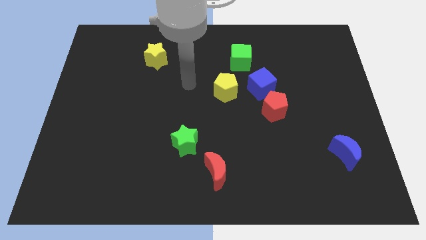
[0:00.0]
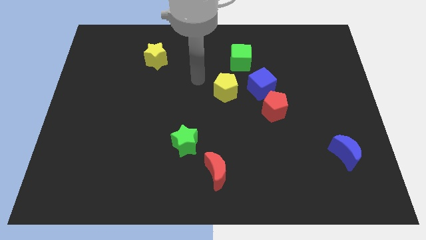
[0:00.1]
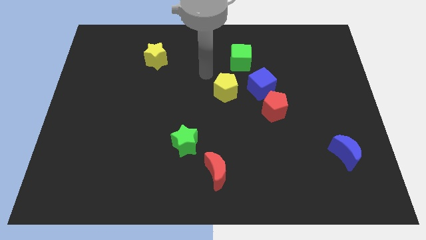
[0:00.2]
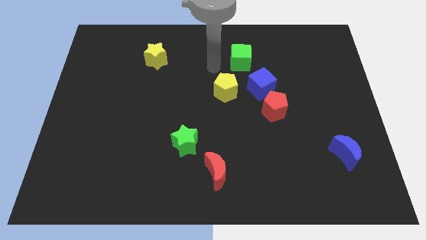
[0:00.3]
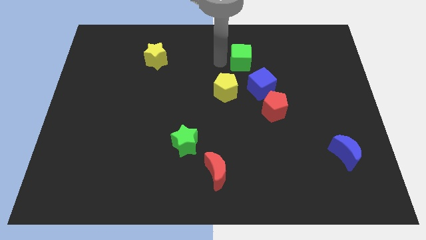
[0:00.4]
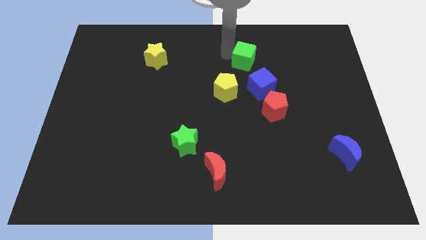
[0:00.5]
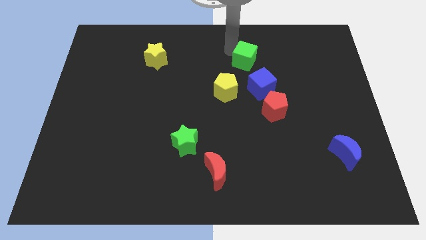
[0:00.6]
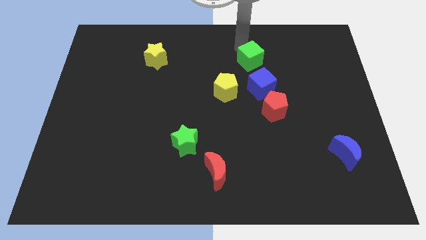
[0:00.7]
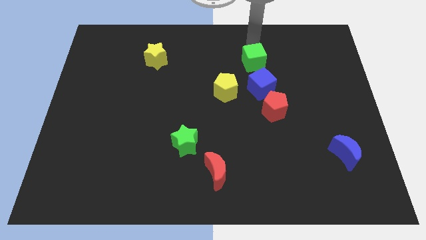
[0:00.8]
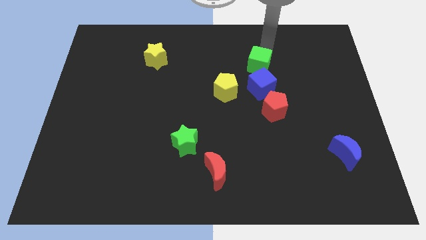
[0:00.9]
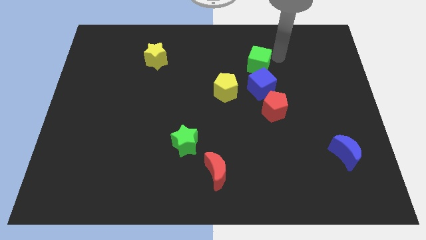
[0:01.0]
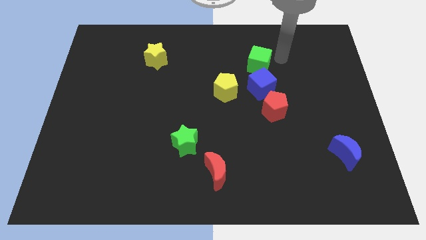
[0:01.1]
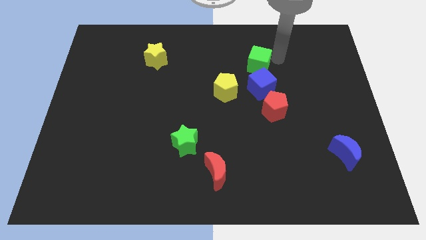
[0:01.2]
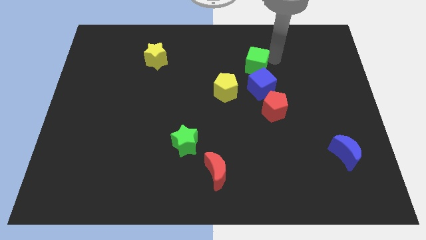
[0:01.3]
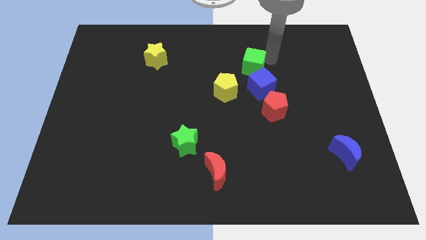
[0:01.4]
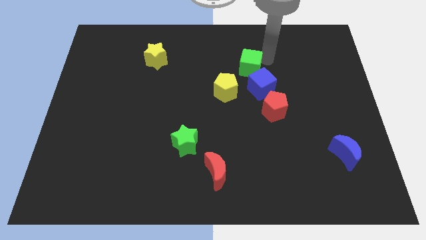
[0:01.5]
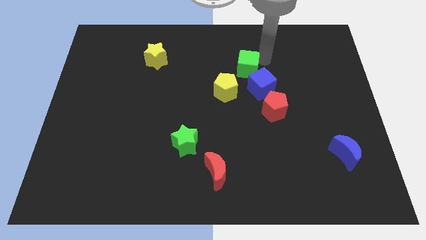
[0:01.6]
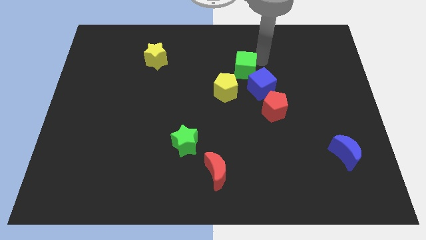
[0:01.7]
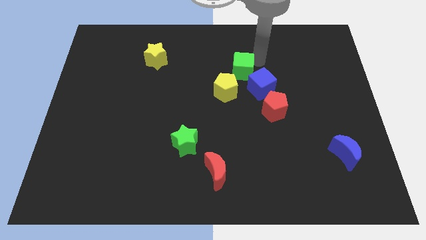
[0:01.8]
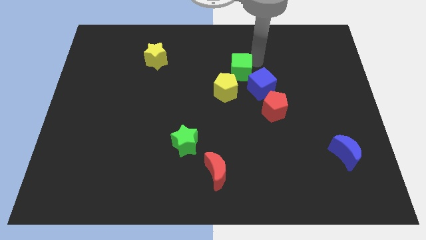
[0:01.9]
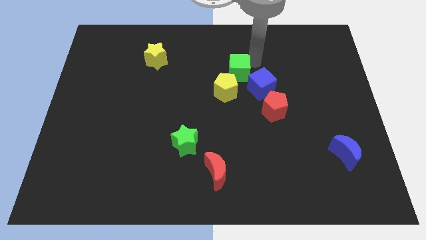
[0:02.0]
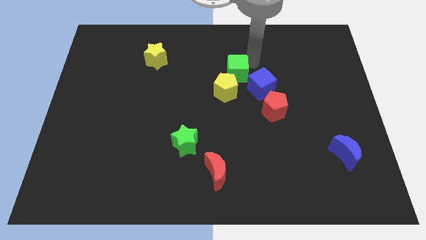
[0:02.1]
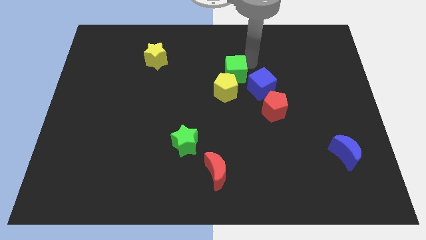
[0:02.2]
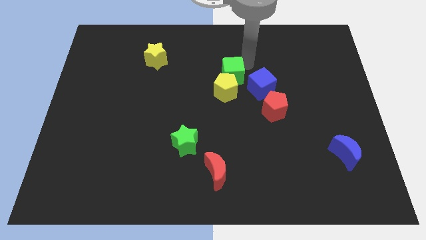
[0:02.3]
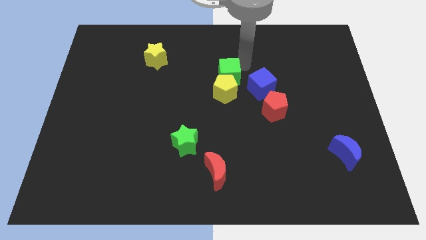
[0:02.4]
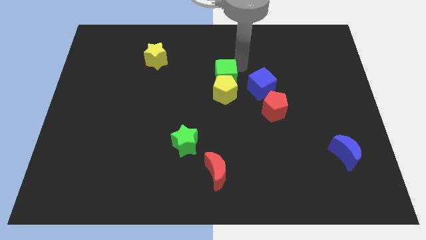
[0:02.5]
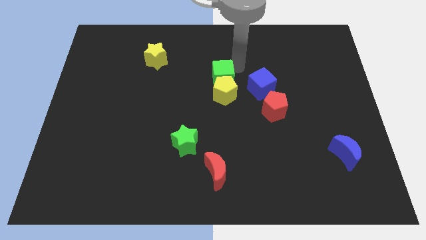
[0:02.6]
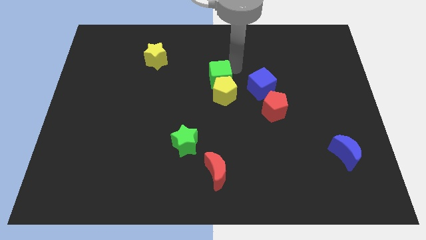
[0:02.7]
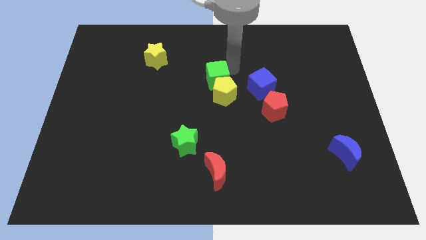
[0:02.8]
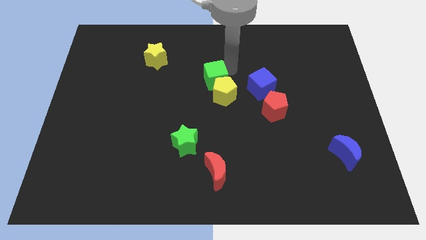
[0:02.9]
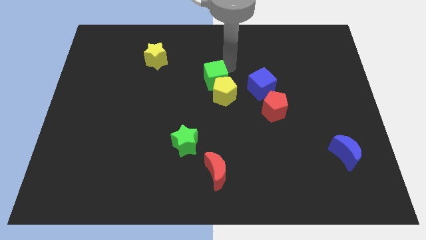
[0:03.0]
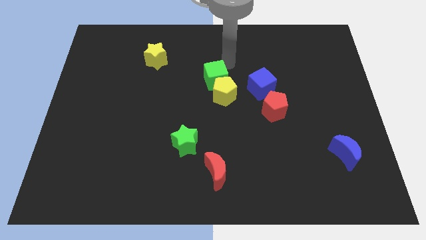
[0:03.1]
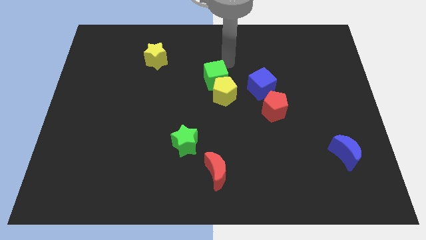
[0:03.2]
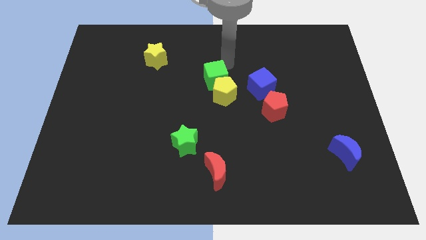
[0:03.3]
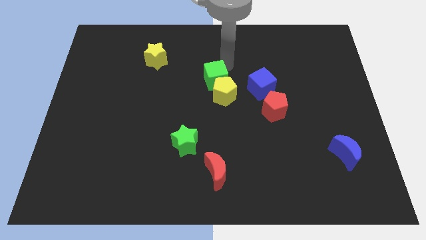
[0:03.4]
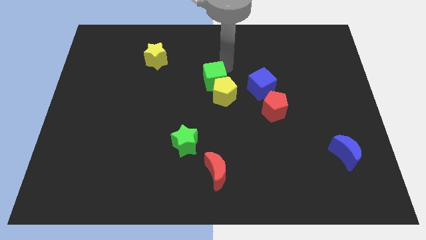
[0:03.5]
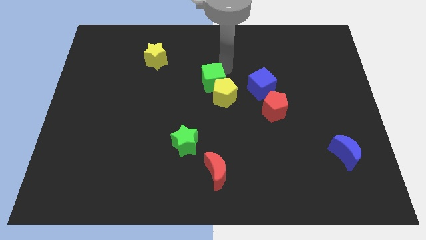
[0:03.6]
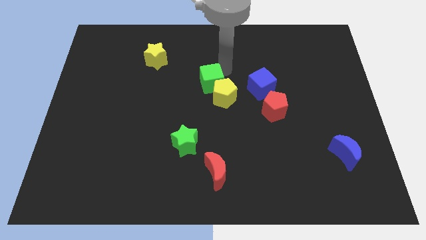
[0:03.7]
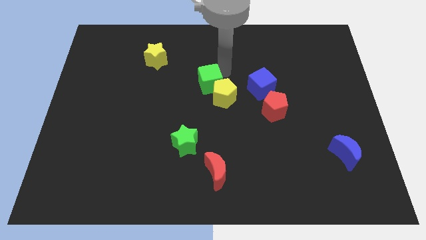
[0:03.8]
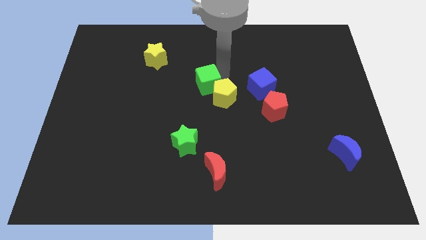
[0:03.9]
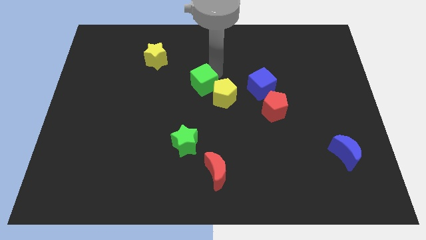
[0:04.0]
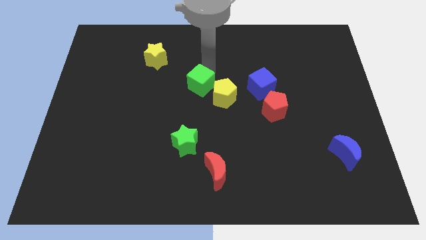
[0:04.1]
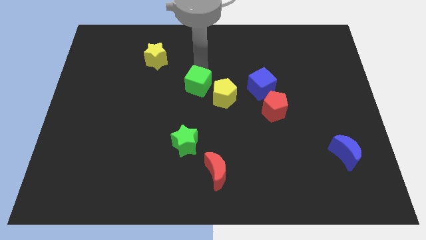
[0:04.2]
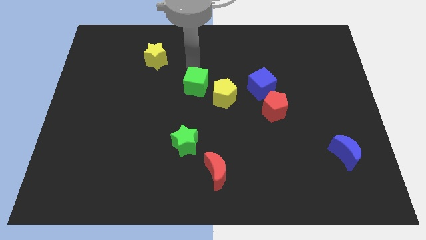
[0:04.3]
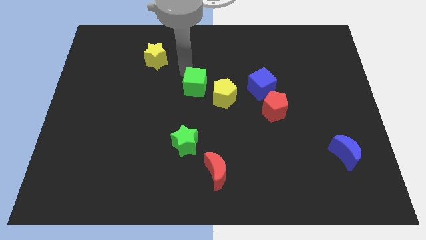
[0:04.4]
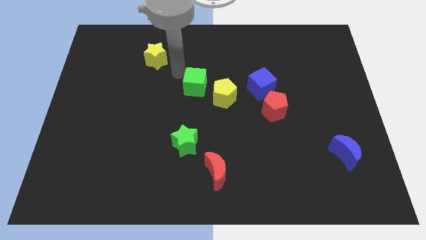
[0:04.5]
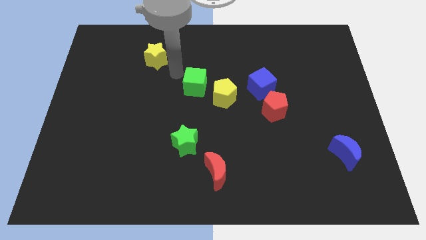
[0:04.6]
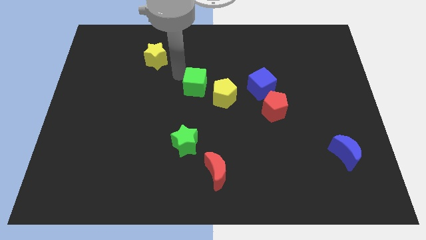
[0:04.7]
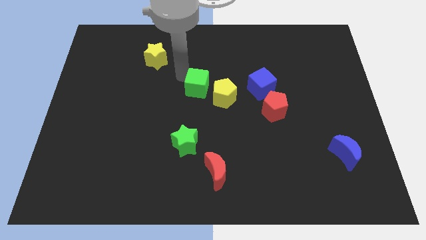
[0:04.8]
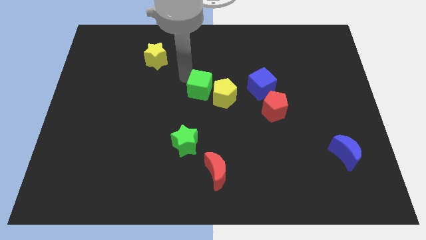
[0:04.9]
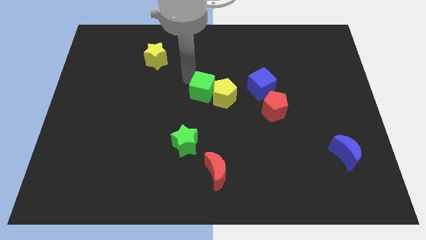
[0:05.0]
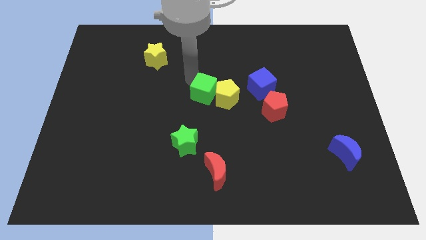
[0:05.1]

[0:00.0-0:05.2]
slightly slide the green cube down

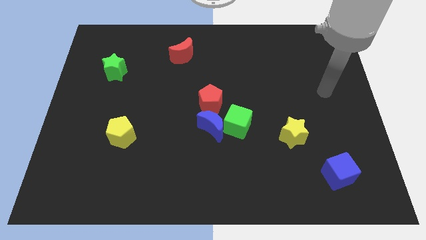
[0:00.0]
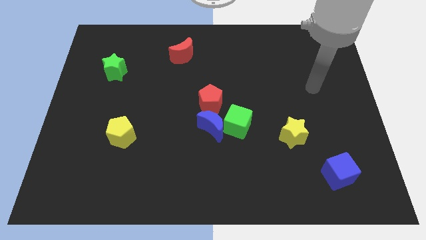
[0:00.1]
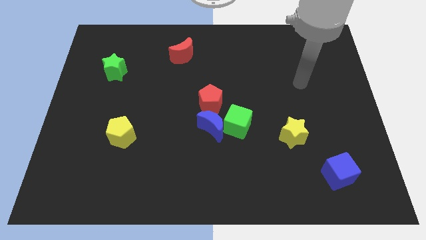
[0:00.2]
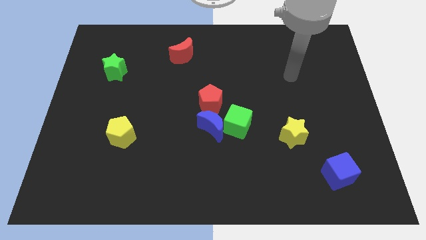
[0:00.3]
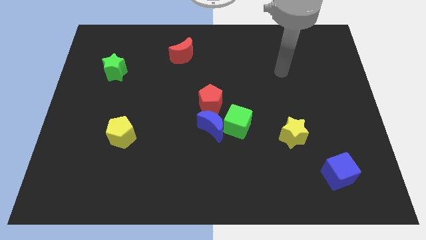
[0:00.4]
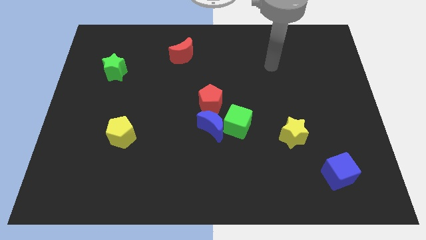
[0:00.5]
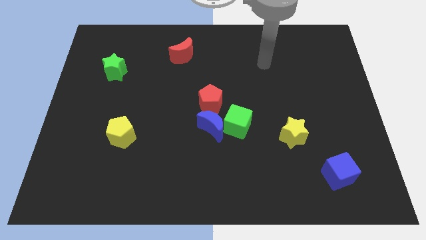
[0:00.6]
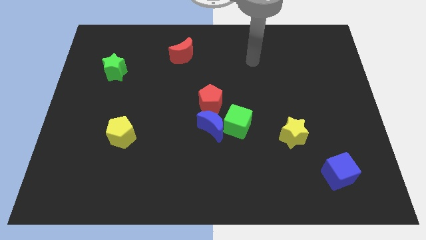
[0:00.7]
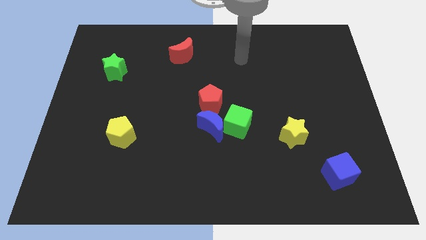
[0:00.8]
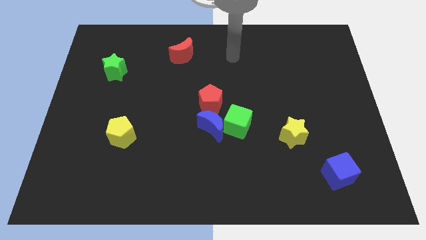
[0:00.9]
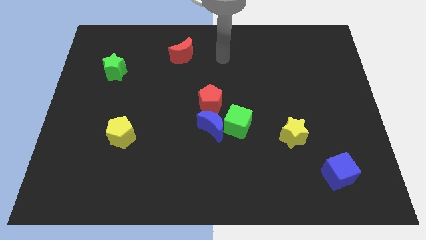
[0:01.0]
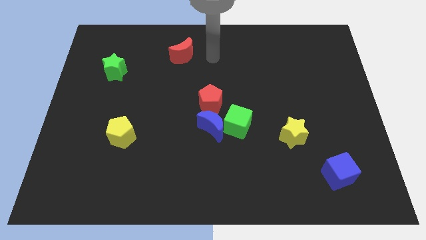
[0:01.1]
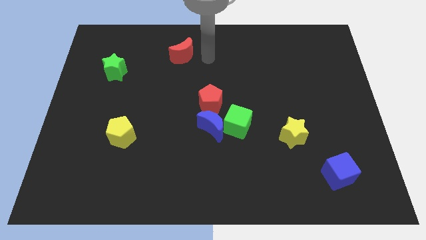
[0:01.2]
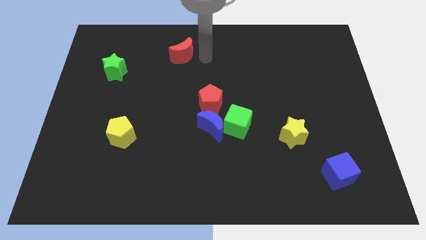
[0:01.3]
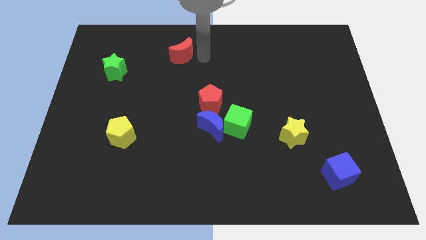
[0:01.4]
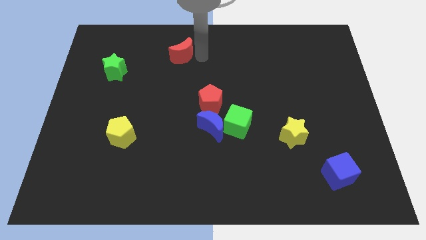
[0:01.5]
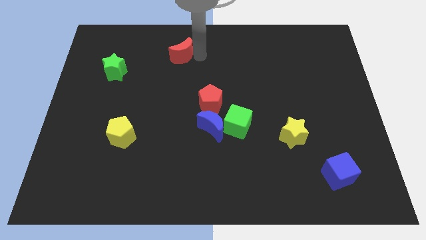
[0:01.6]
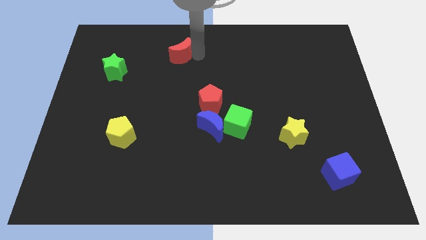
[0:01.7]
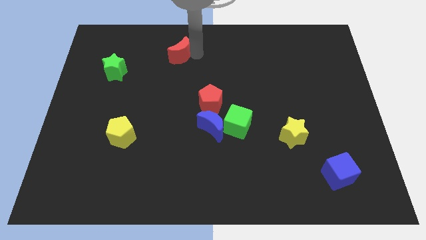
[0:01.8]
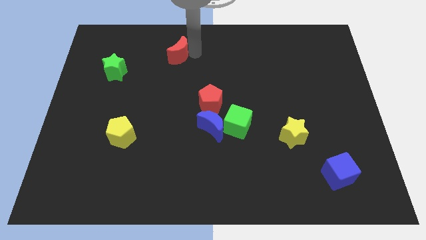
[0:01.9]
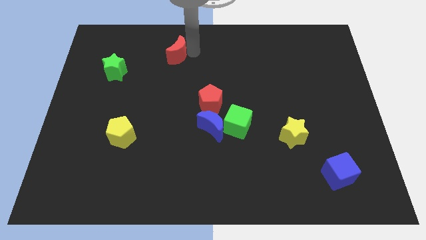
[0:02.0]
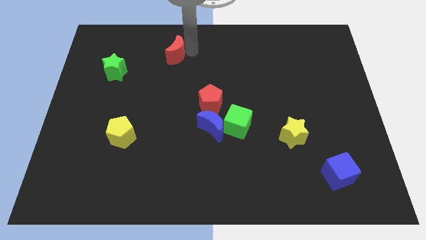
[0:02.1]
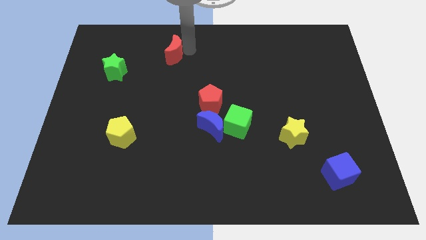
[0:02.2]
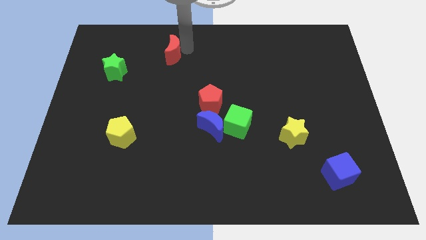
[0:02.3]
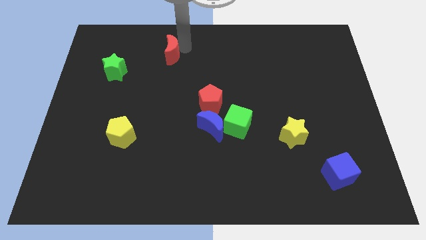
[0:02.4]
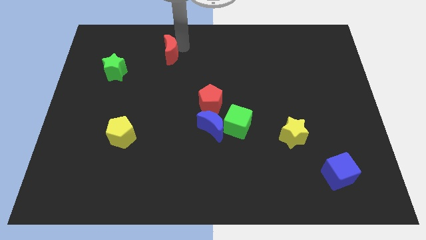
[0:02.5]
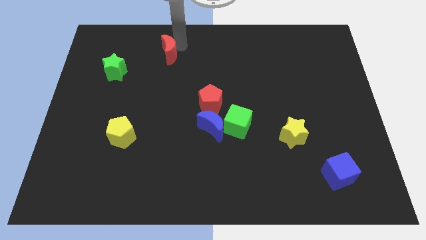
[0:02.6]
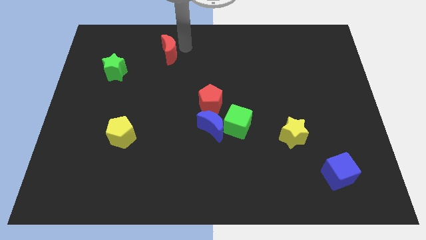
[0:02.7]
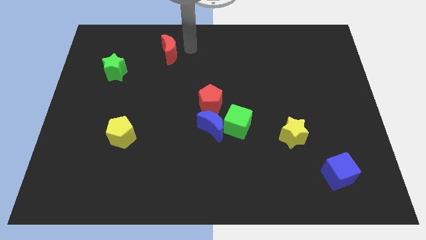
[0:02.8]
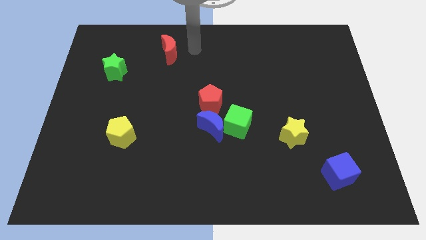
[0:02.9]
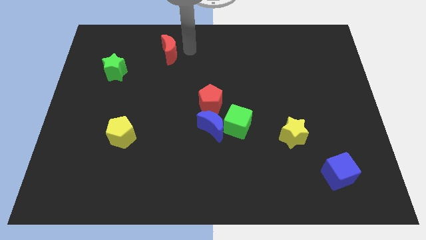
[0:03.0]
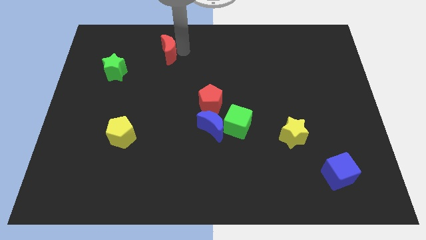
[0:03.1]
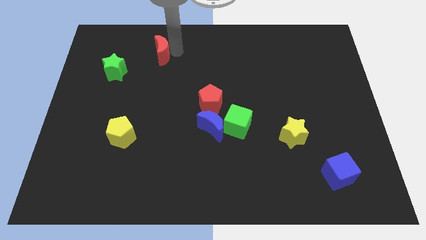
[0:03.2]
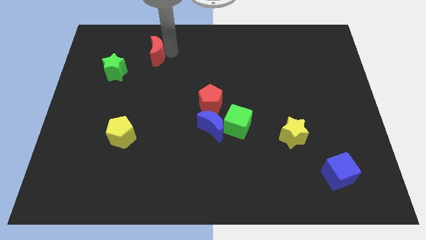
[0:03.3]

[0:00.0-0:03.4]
move the red moon to the left a little

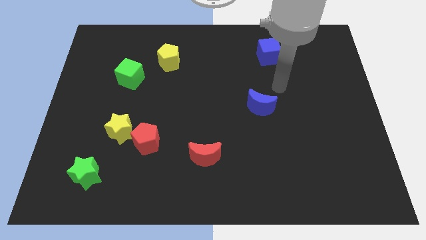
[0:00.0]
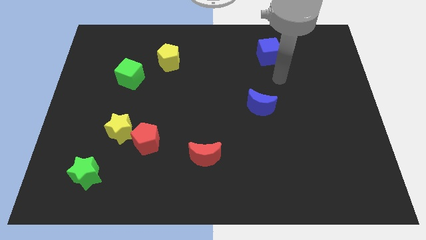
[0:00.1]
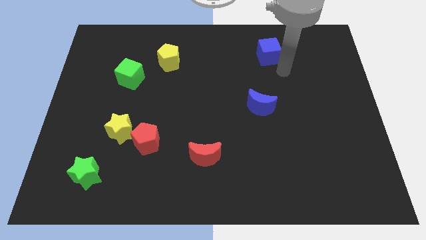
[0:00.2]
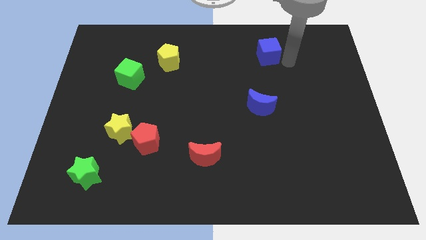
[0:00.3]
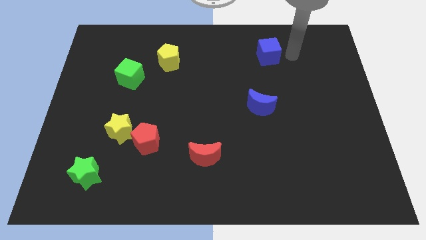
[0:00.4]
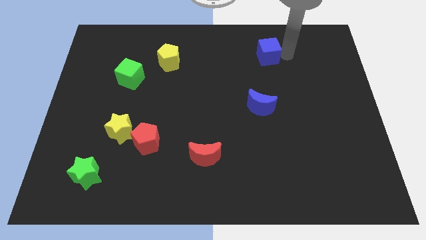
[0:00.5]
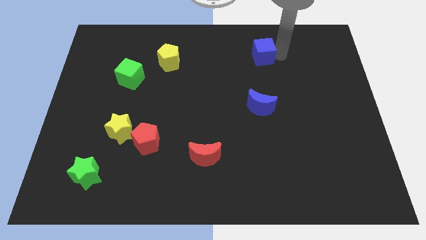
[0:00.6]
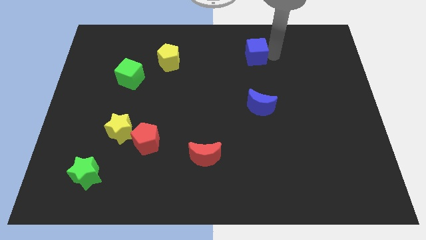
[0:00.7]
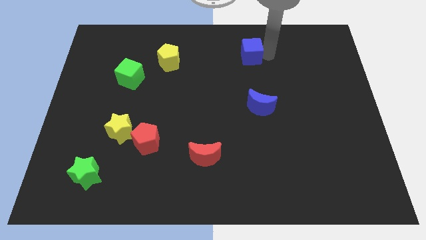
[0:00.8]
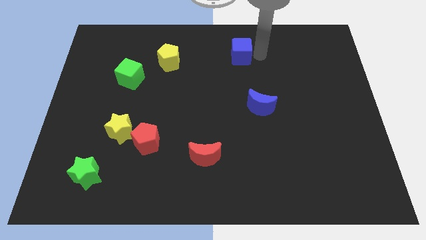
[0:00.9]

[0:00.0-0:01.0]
move the blue cube to the left a little
